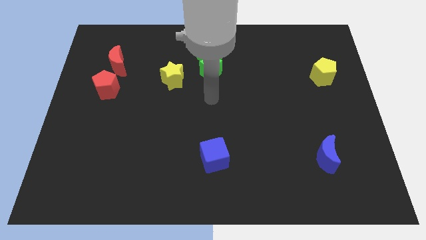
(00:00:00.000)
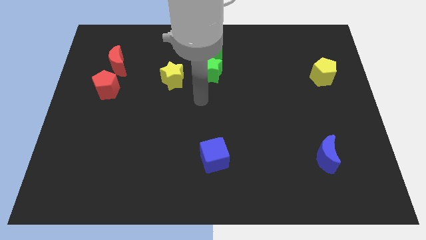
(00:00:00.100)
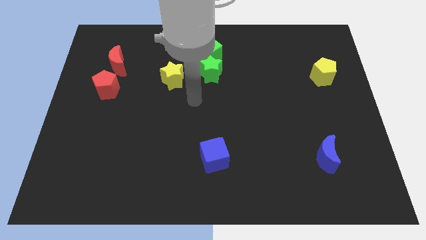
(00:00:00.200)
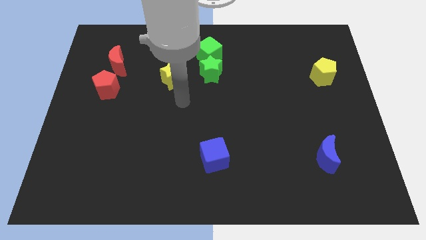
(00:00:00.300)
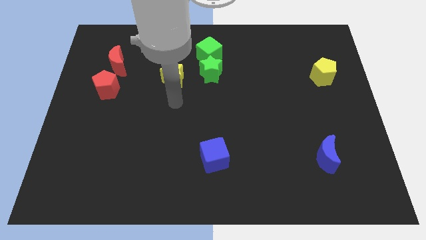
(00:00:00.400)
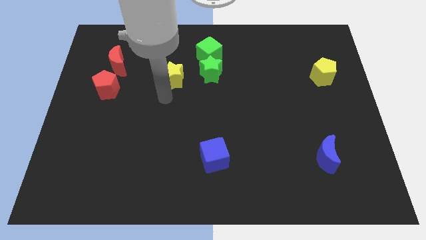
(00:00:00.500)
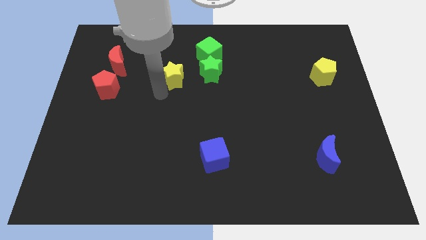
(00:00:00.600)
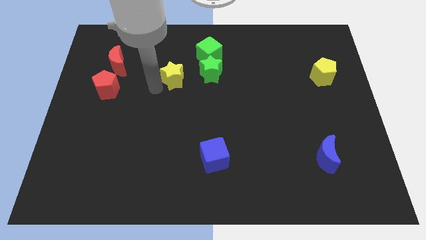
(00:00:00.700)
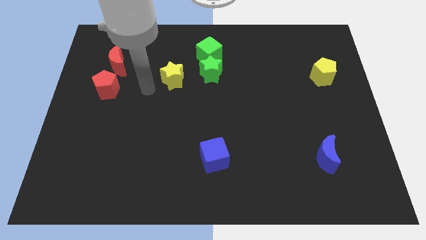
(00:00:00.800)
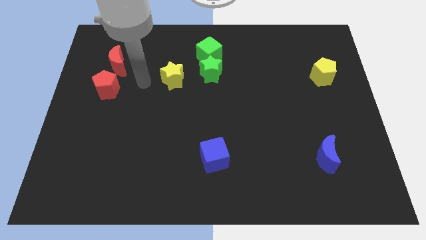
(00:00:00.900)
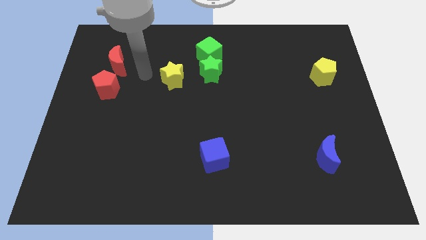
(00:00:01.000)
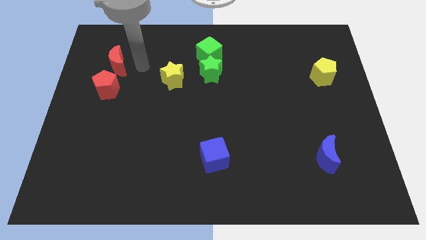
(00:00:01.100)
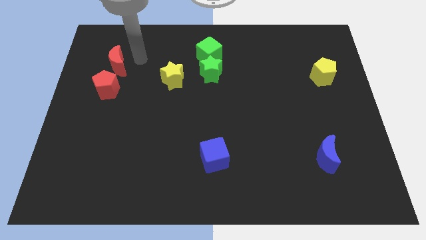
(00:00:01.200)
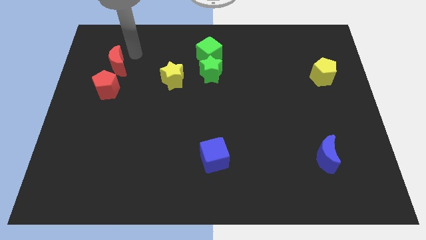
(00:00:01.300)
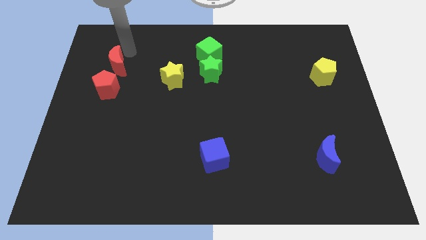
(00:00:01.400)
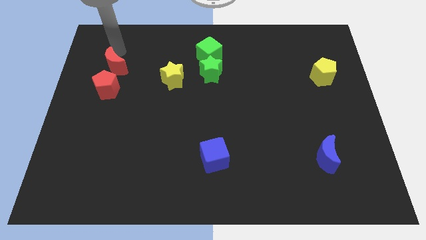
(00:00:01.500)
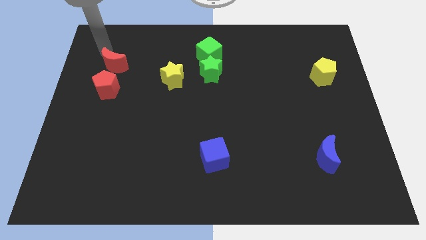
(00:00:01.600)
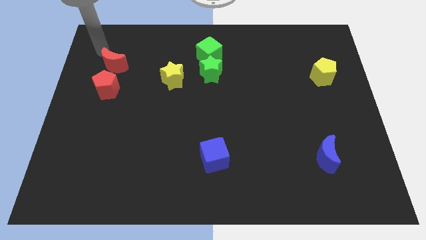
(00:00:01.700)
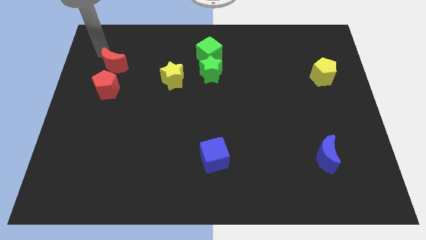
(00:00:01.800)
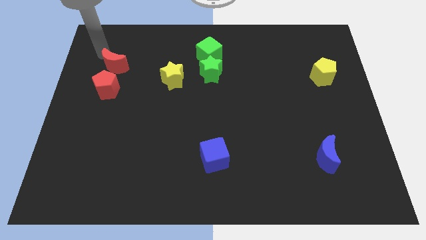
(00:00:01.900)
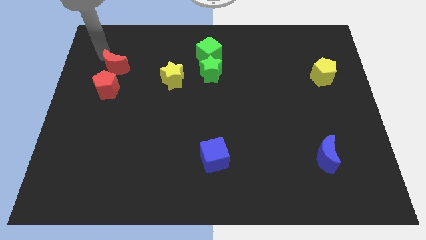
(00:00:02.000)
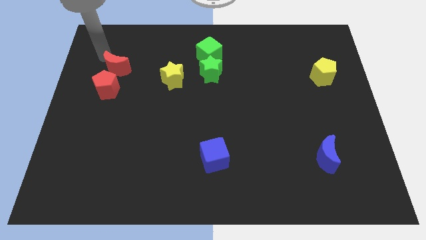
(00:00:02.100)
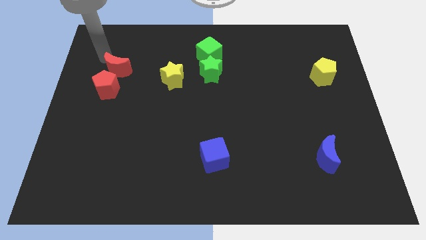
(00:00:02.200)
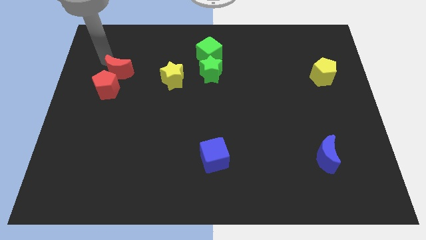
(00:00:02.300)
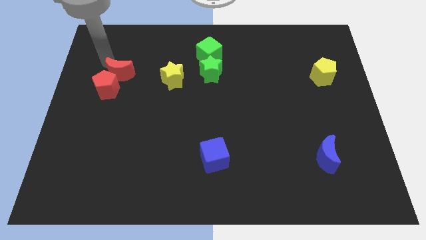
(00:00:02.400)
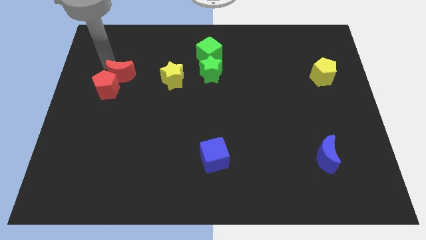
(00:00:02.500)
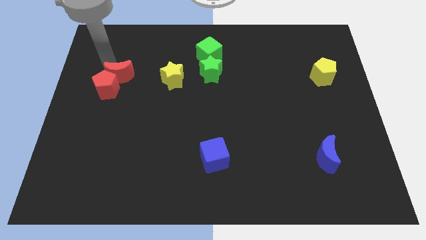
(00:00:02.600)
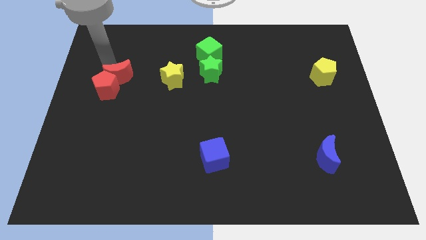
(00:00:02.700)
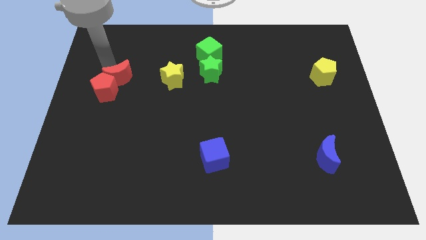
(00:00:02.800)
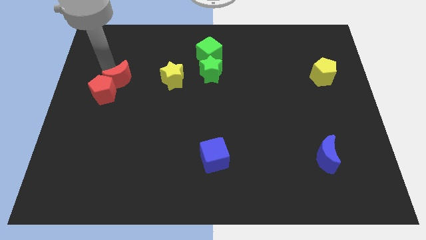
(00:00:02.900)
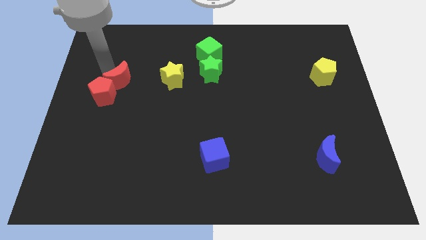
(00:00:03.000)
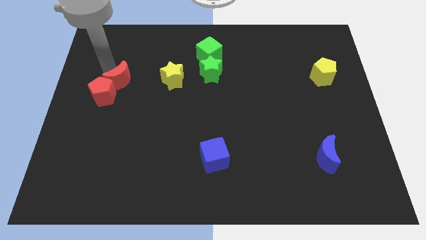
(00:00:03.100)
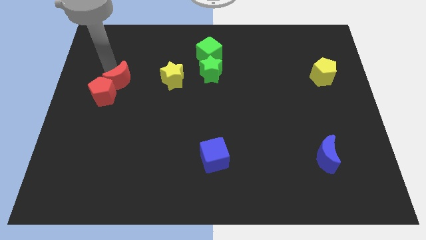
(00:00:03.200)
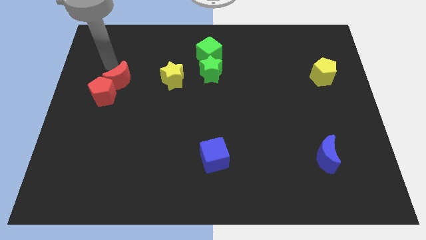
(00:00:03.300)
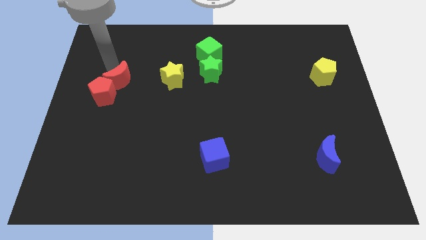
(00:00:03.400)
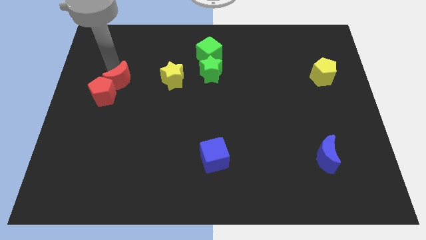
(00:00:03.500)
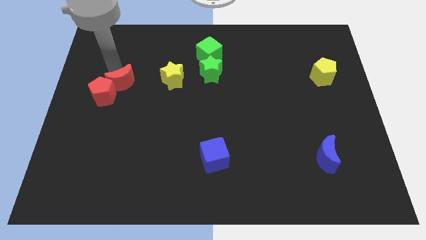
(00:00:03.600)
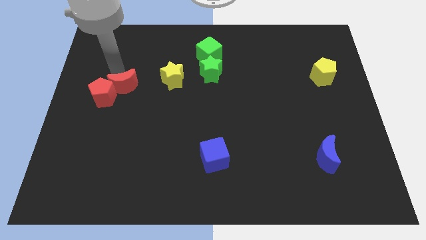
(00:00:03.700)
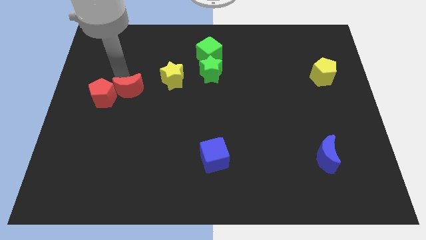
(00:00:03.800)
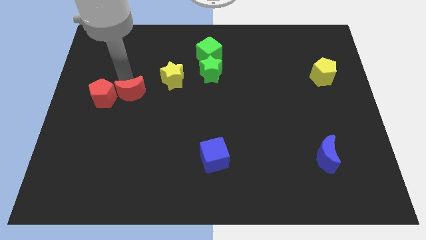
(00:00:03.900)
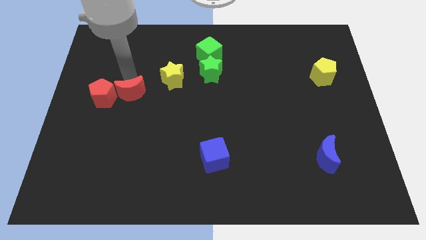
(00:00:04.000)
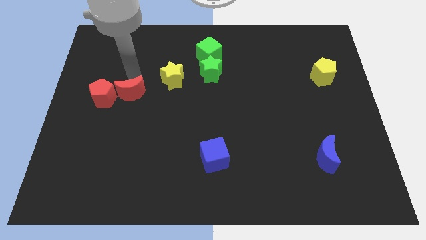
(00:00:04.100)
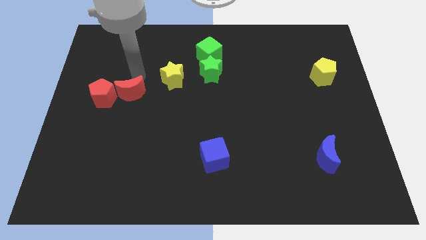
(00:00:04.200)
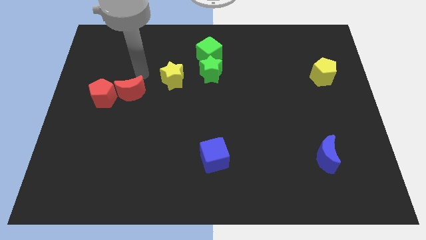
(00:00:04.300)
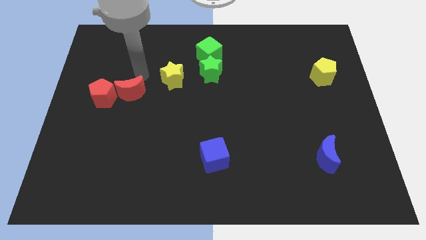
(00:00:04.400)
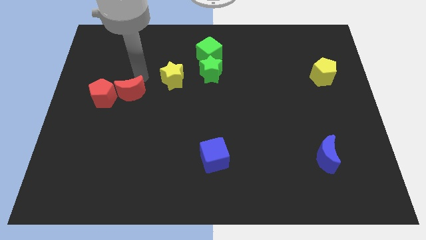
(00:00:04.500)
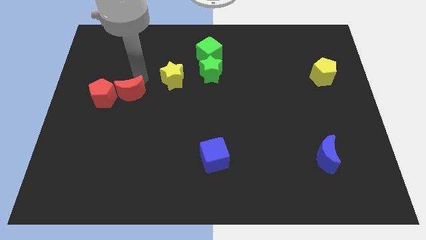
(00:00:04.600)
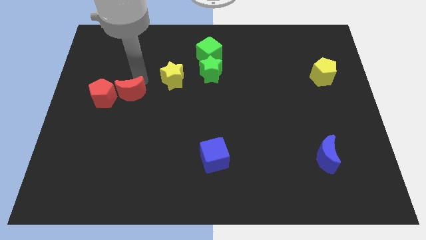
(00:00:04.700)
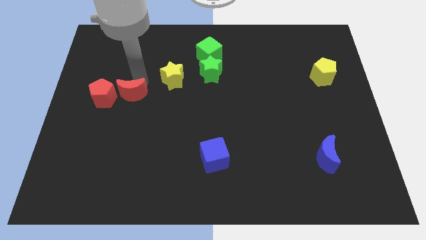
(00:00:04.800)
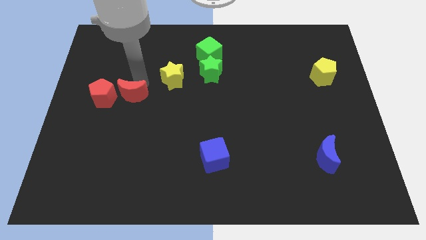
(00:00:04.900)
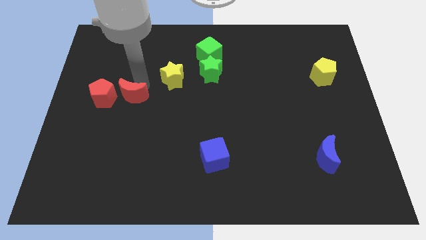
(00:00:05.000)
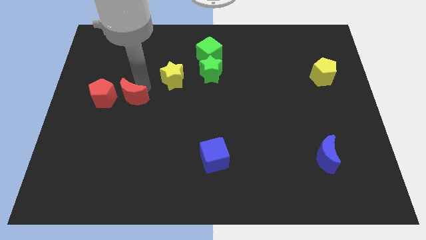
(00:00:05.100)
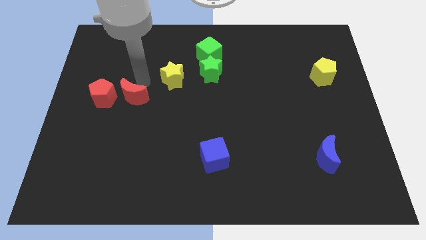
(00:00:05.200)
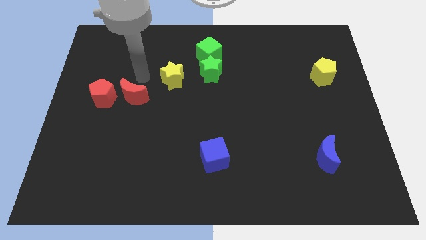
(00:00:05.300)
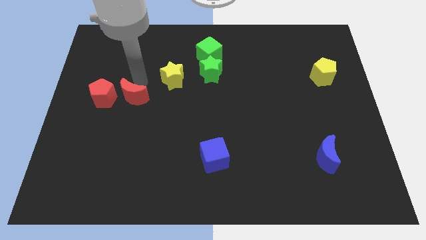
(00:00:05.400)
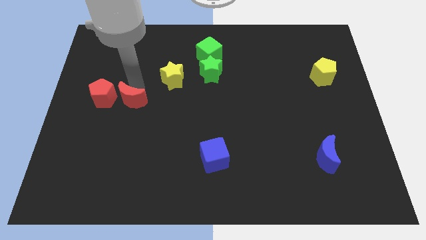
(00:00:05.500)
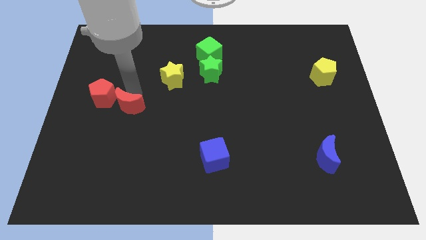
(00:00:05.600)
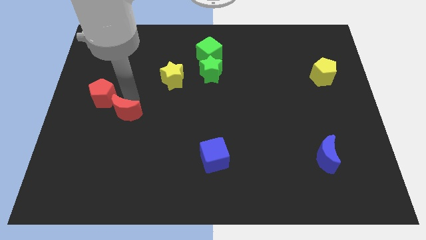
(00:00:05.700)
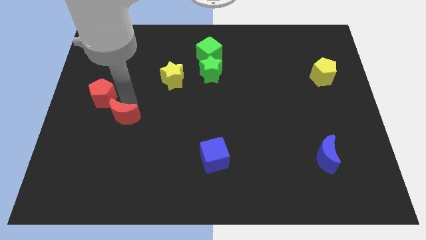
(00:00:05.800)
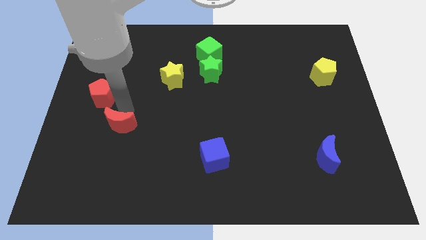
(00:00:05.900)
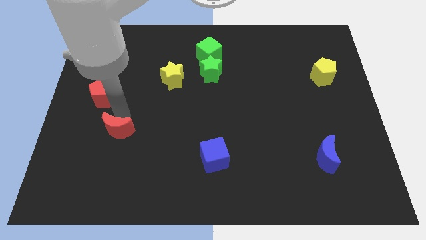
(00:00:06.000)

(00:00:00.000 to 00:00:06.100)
move the red moon down

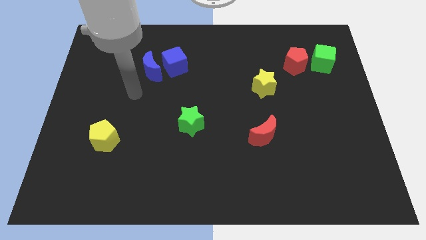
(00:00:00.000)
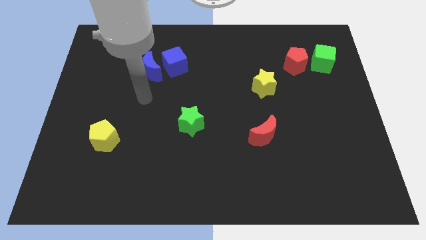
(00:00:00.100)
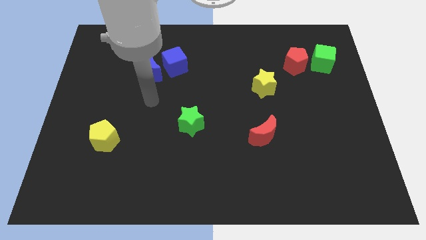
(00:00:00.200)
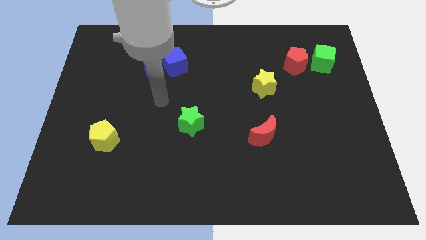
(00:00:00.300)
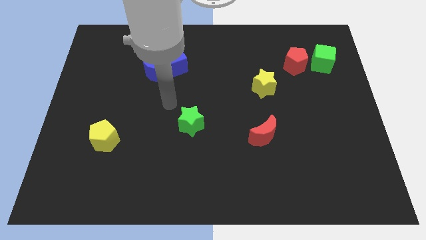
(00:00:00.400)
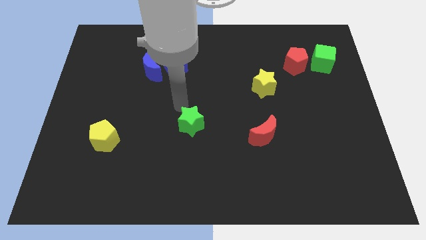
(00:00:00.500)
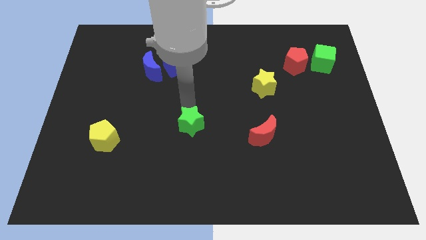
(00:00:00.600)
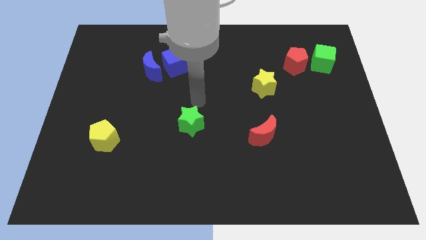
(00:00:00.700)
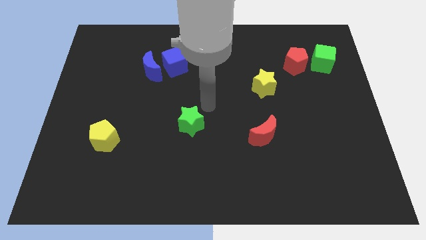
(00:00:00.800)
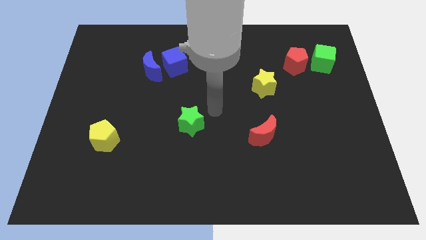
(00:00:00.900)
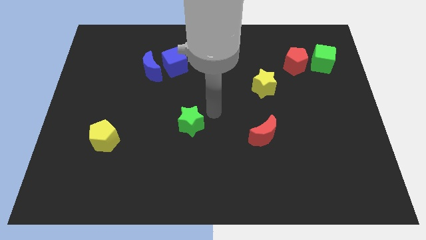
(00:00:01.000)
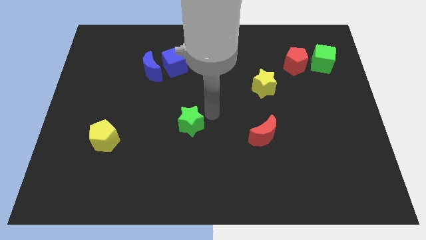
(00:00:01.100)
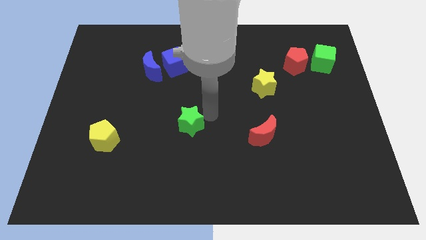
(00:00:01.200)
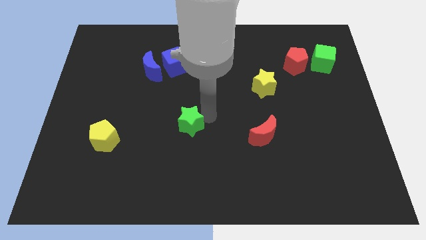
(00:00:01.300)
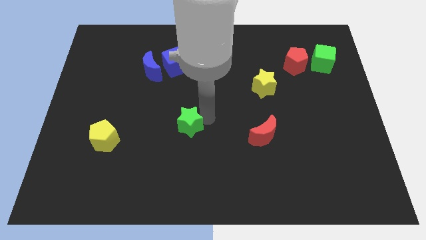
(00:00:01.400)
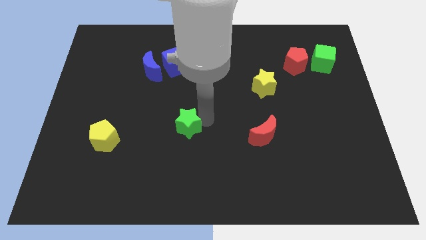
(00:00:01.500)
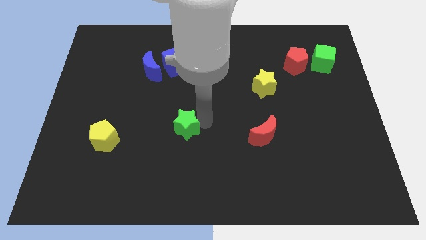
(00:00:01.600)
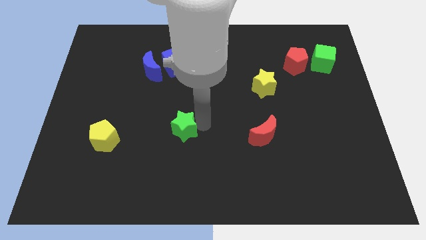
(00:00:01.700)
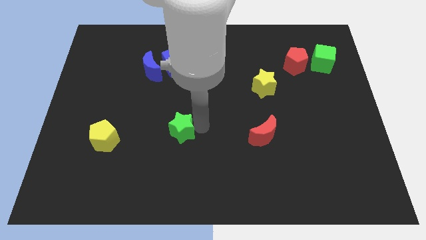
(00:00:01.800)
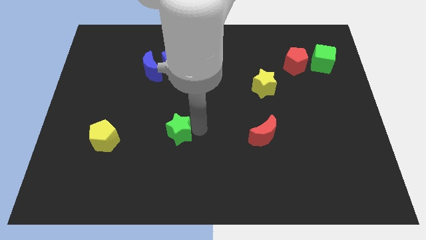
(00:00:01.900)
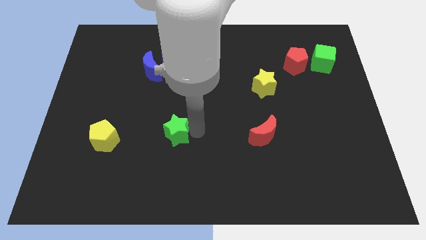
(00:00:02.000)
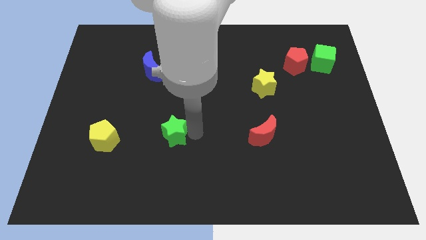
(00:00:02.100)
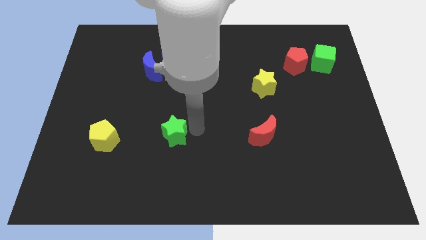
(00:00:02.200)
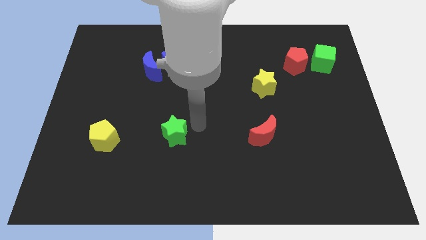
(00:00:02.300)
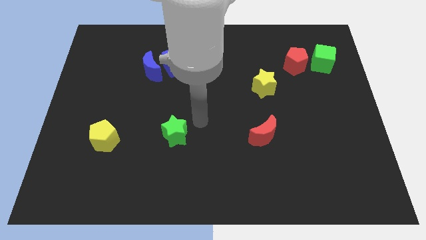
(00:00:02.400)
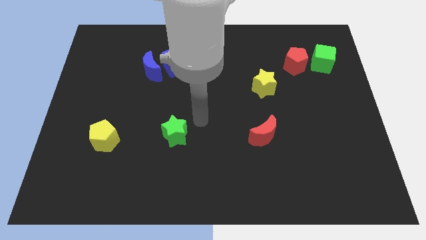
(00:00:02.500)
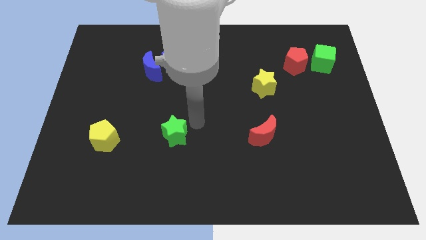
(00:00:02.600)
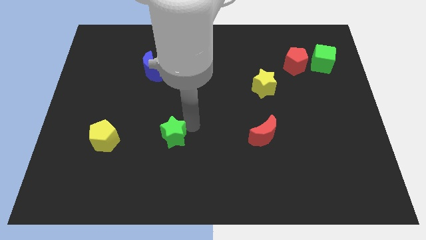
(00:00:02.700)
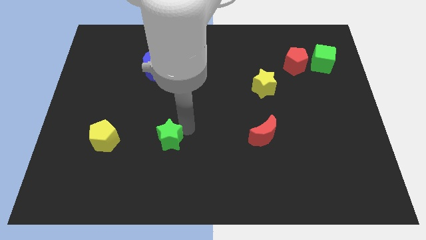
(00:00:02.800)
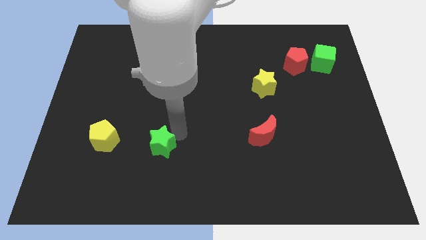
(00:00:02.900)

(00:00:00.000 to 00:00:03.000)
push the green star slightly down and left diagonally
